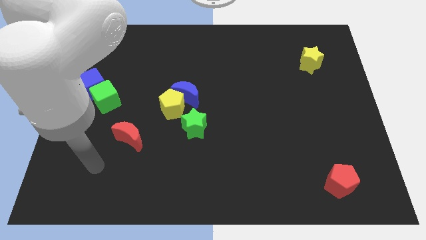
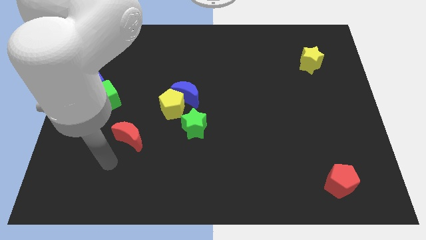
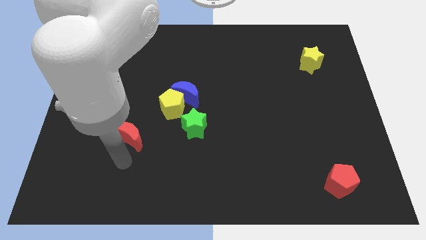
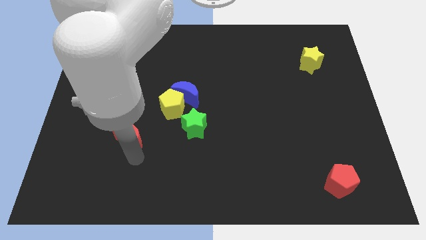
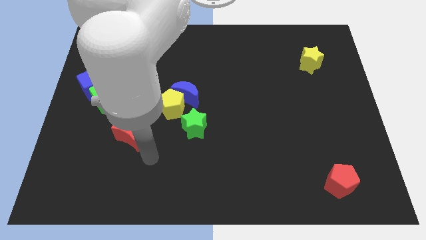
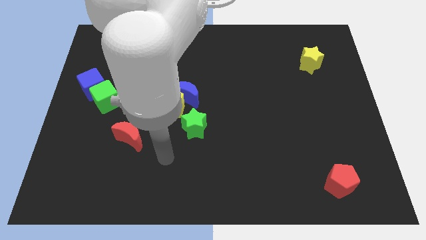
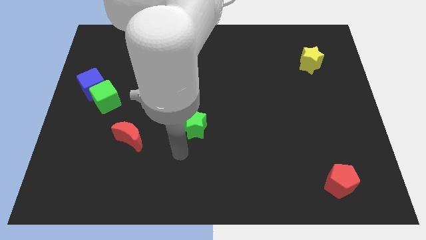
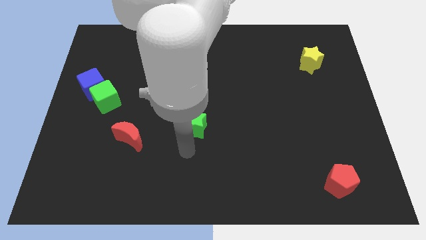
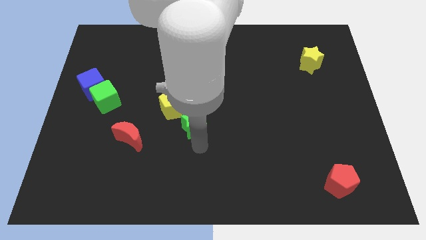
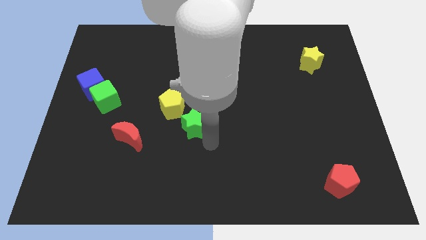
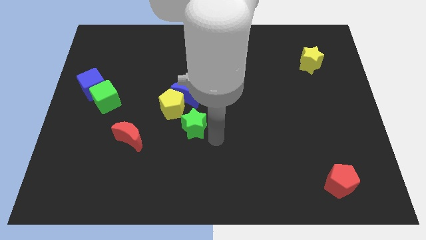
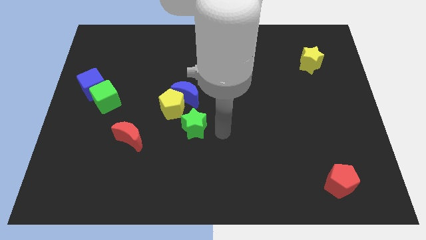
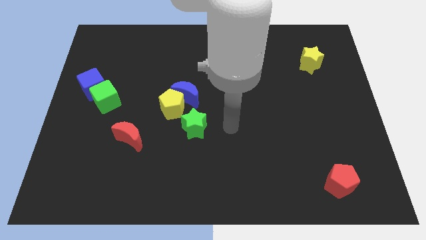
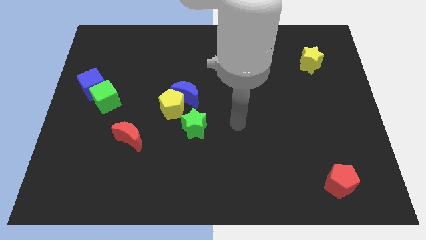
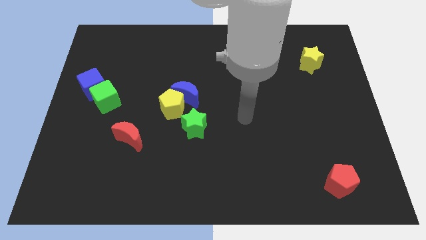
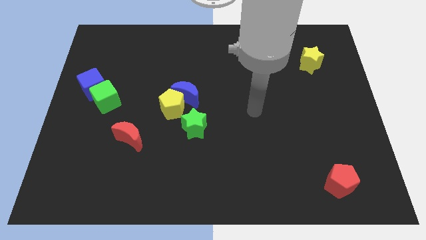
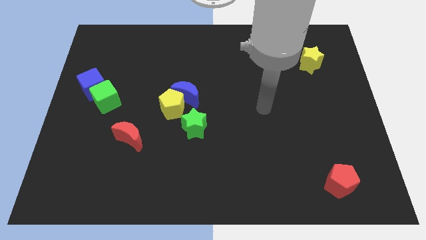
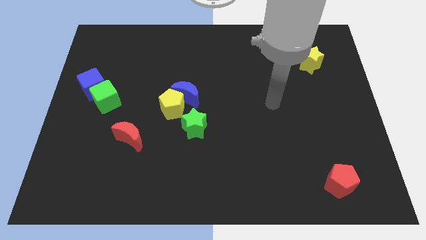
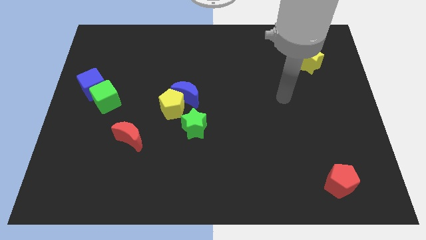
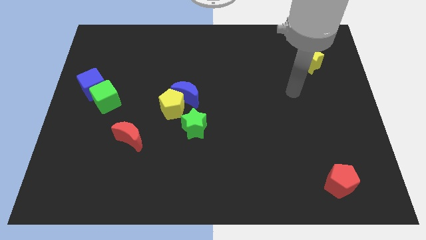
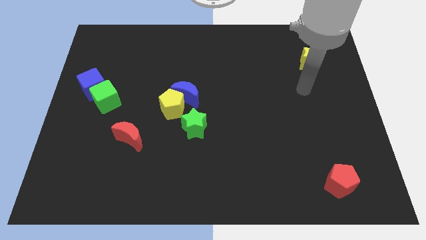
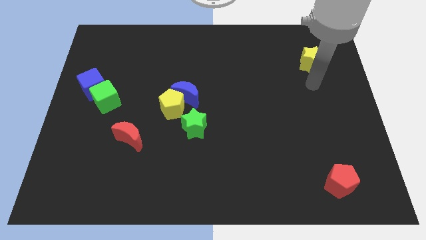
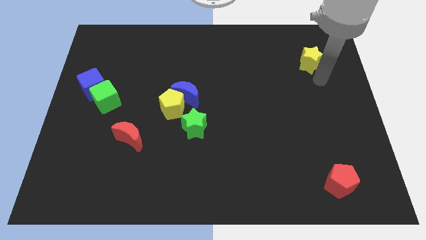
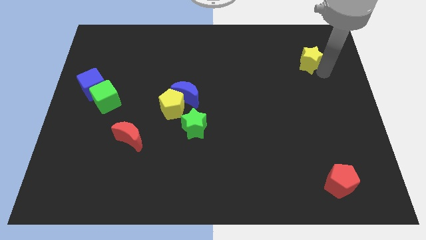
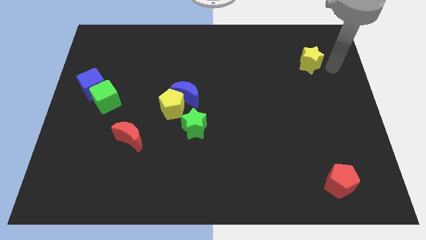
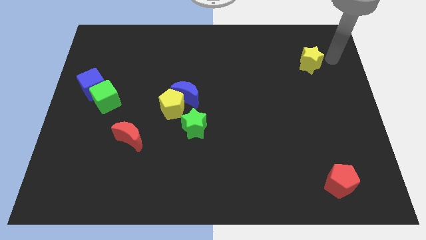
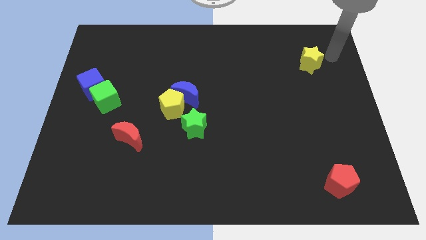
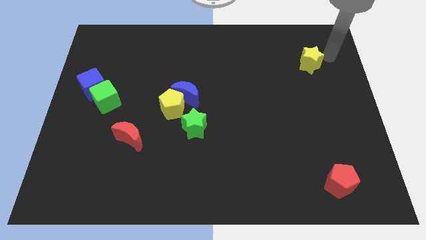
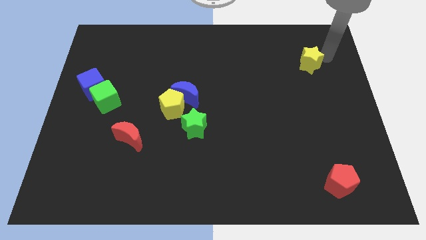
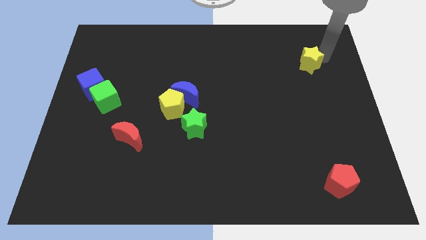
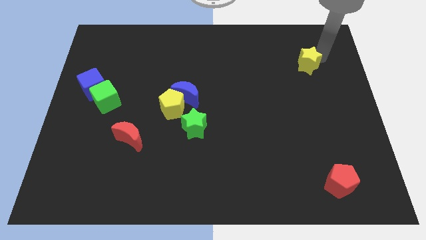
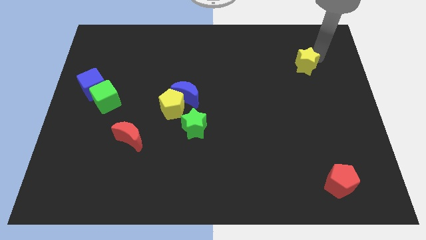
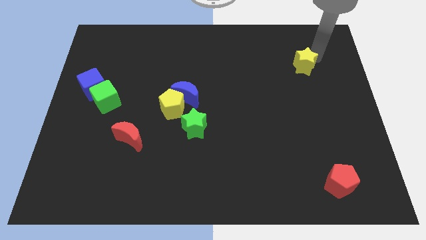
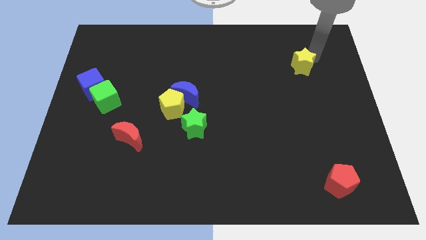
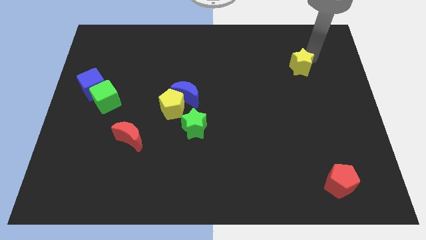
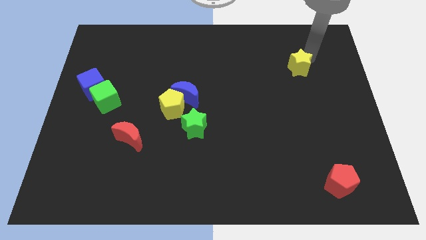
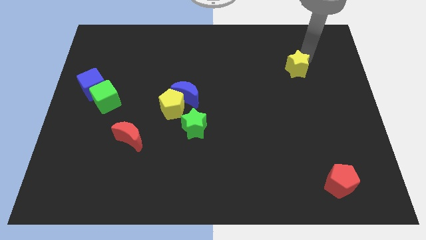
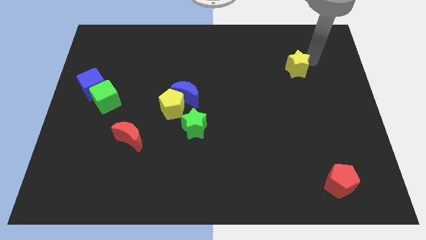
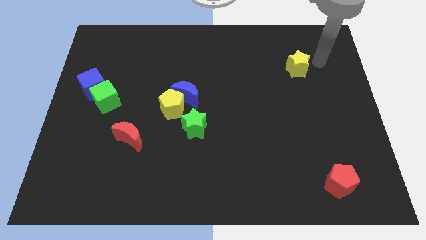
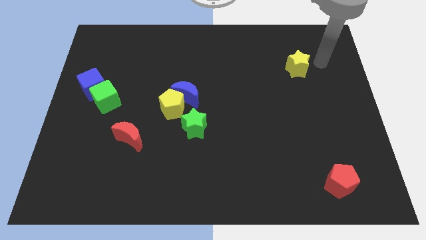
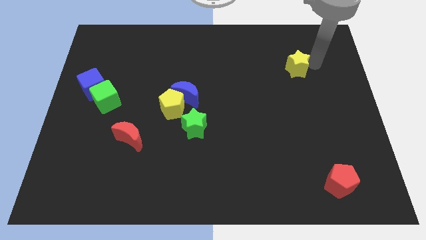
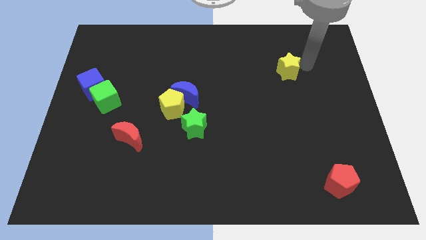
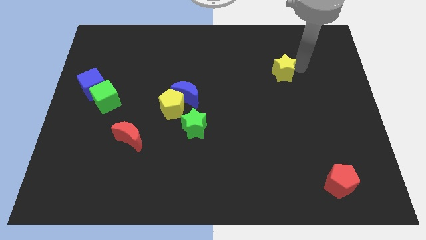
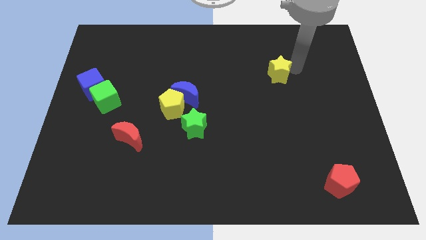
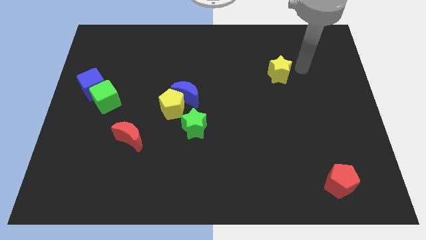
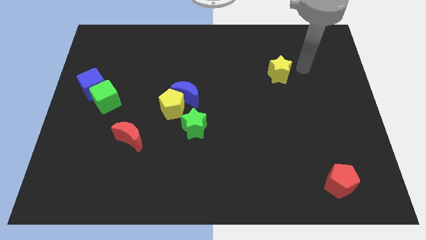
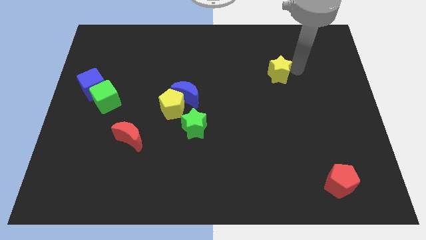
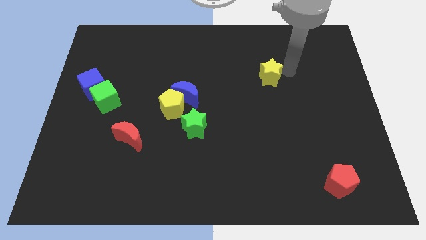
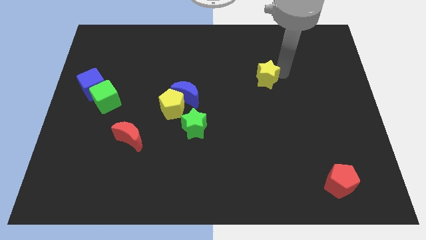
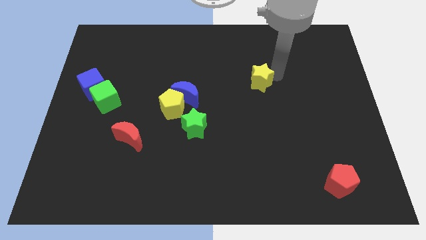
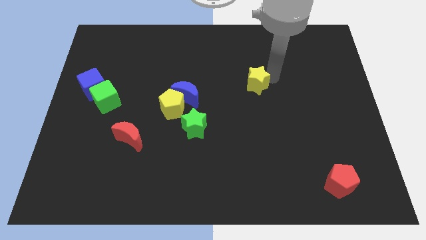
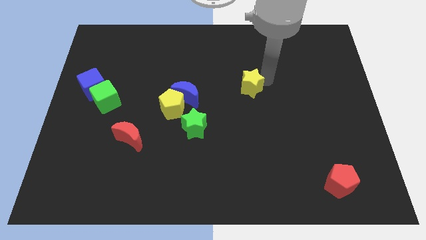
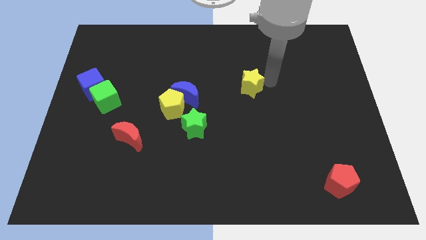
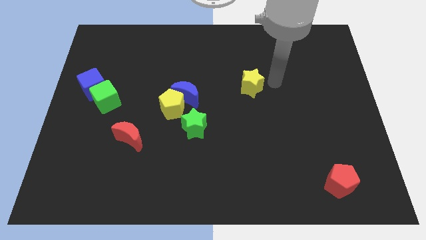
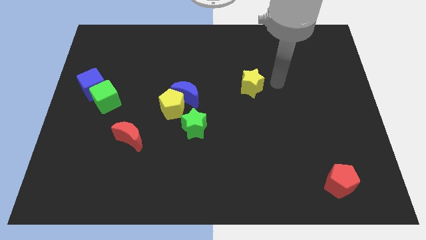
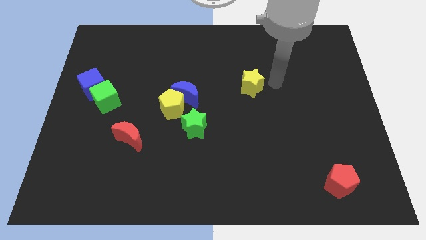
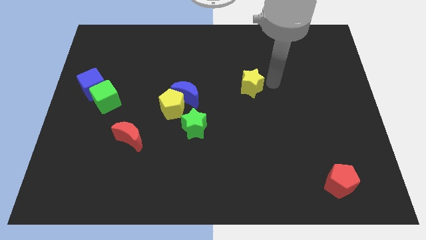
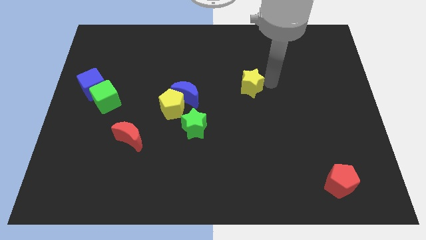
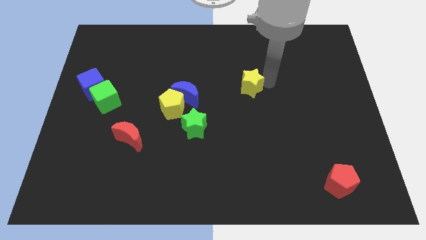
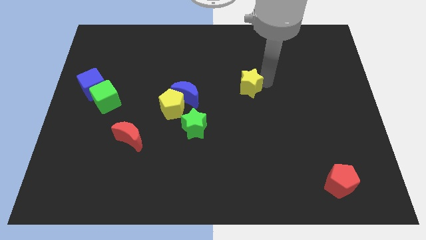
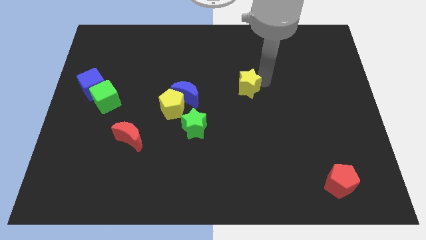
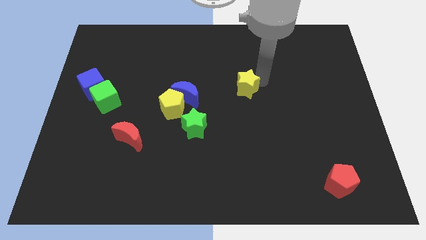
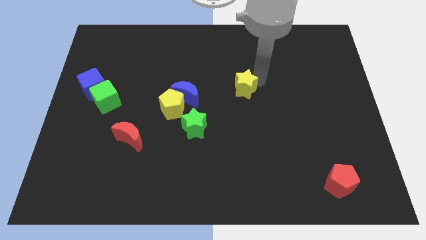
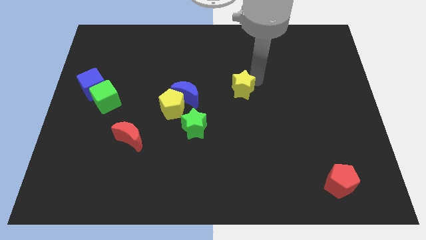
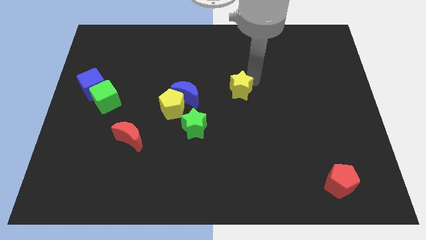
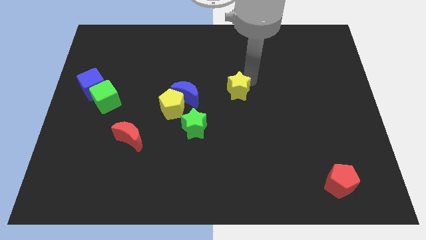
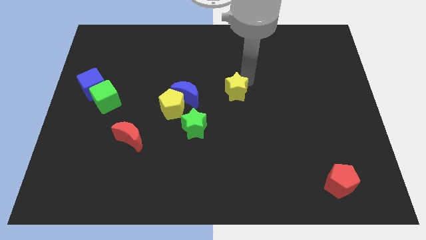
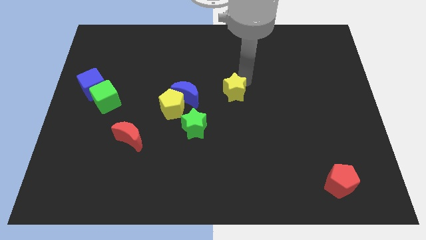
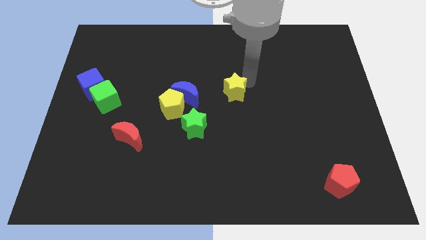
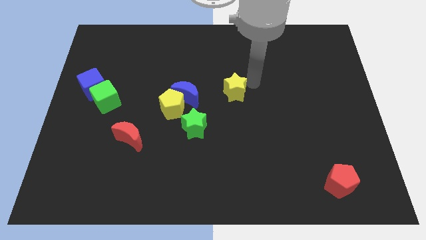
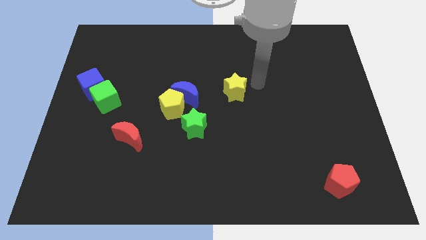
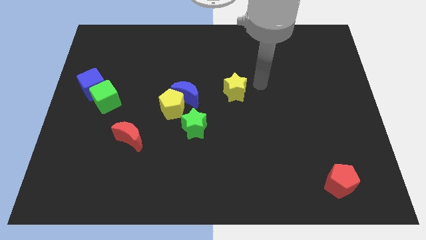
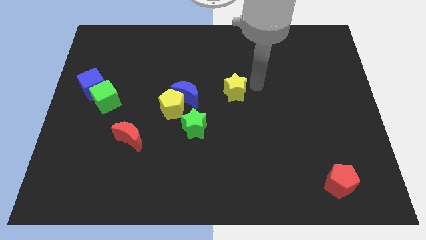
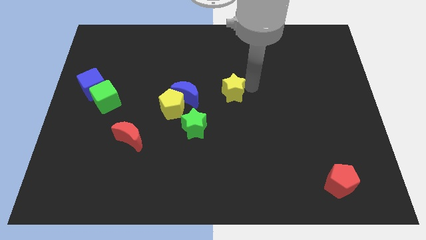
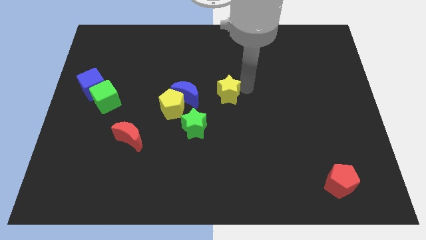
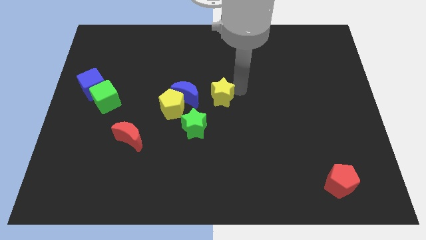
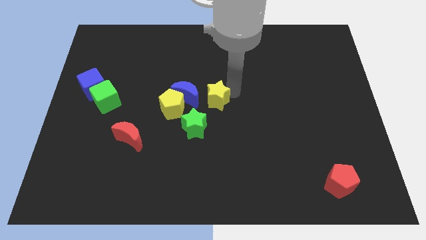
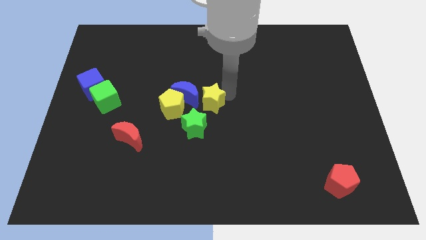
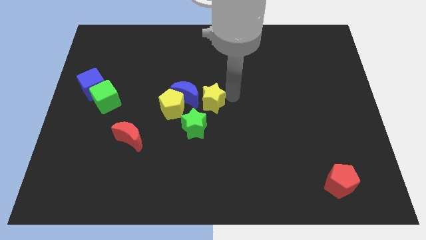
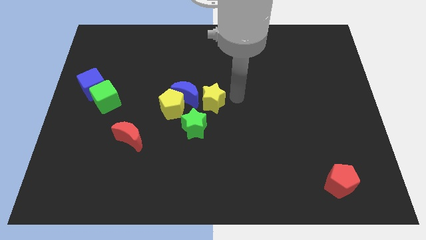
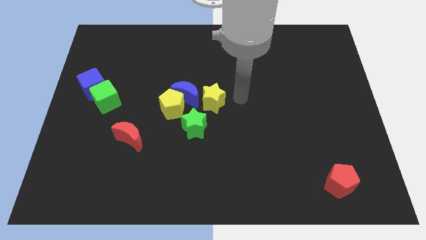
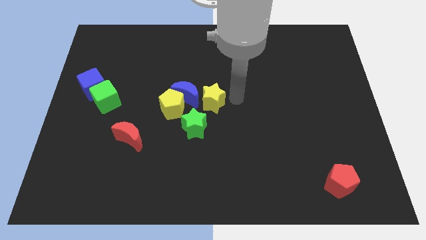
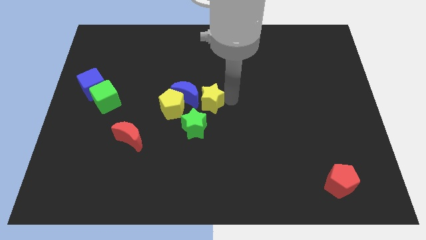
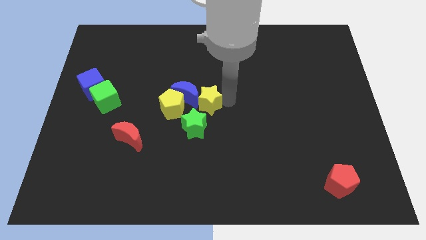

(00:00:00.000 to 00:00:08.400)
move the yellow star close to the blue moon
